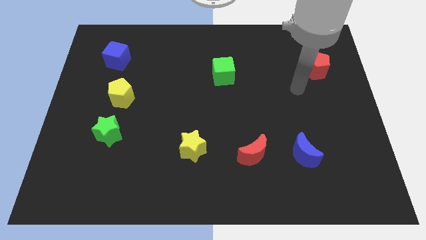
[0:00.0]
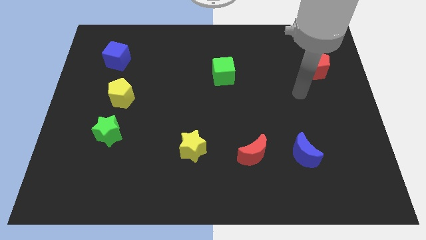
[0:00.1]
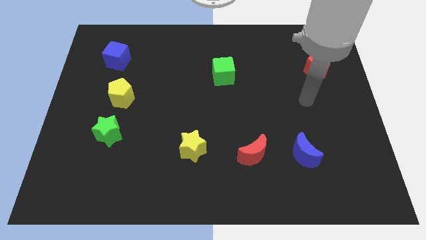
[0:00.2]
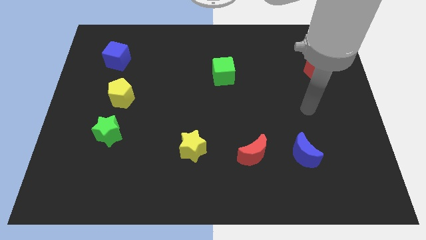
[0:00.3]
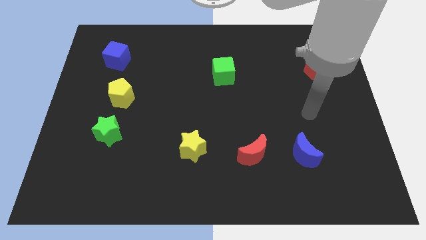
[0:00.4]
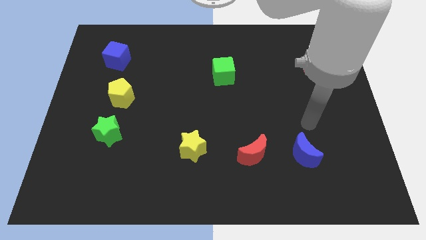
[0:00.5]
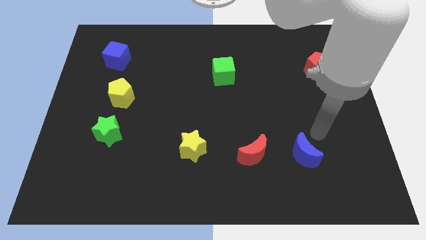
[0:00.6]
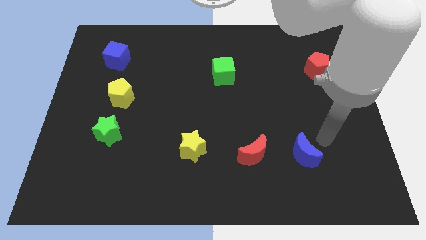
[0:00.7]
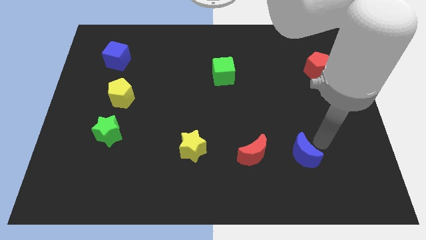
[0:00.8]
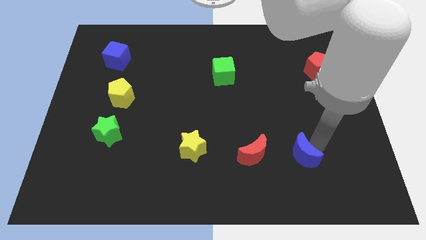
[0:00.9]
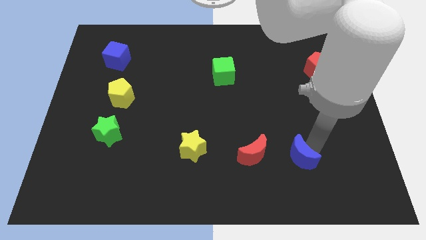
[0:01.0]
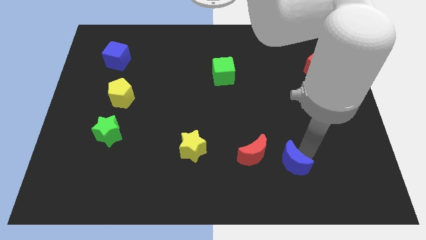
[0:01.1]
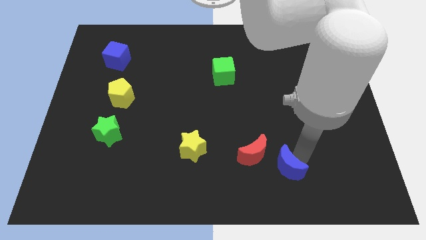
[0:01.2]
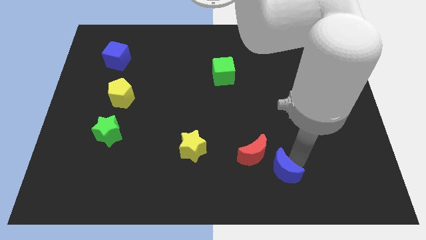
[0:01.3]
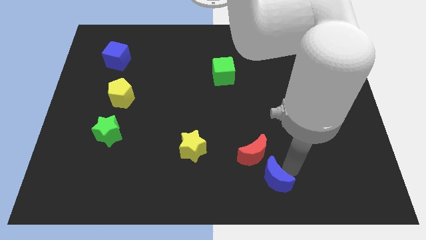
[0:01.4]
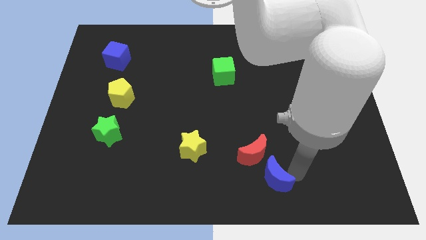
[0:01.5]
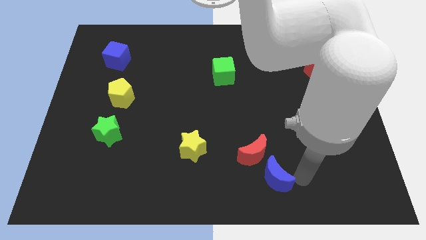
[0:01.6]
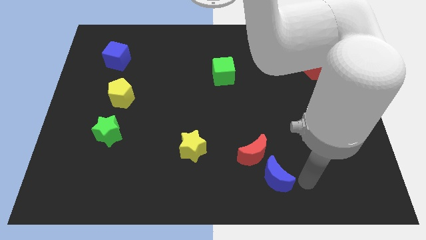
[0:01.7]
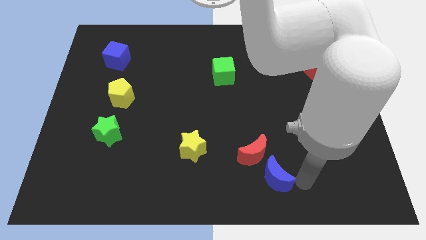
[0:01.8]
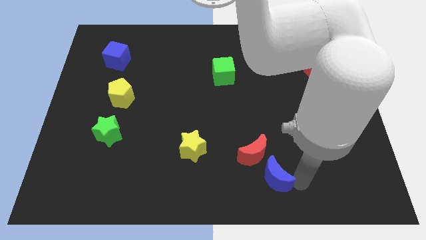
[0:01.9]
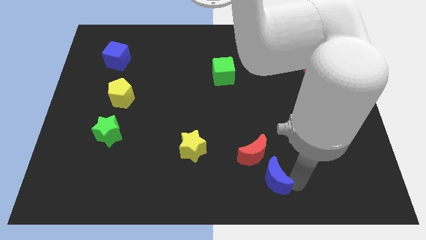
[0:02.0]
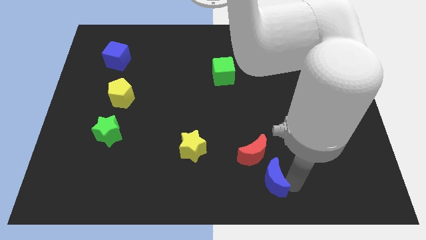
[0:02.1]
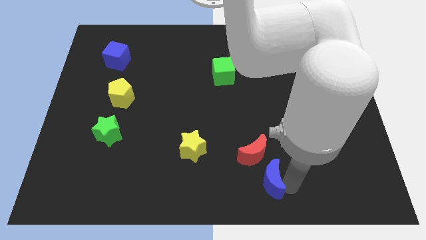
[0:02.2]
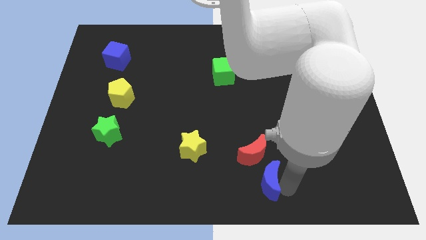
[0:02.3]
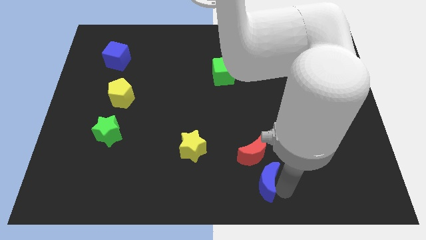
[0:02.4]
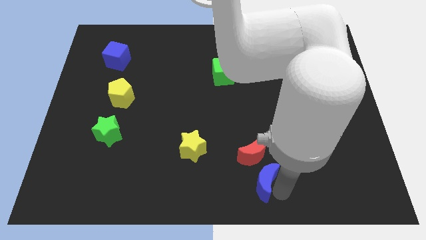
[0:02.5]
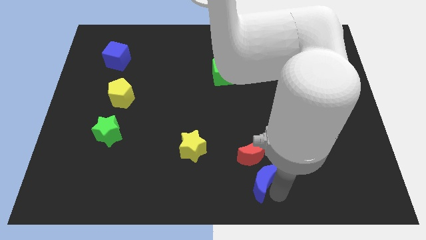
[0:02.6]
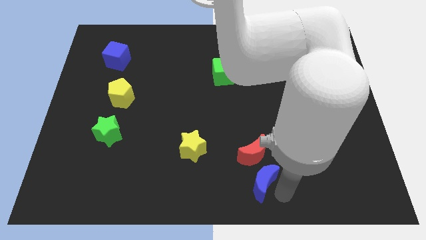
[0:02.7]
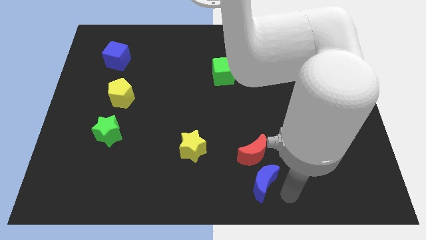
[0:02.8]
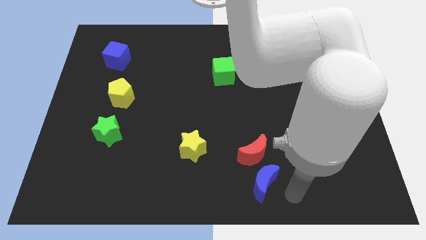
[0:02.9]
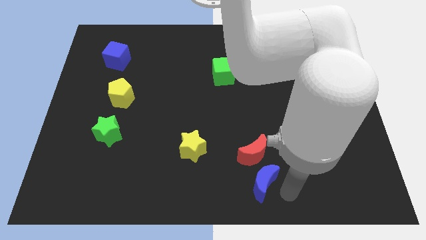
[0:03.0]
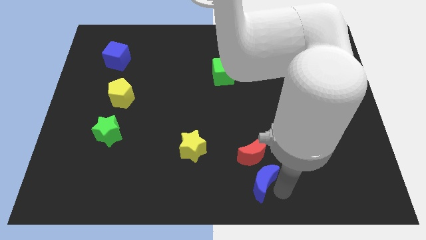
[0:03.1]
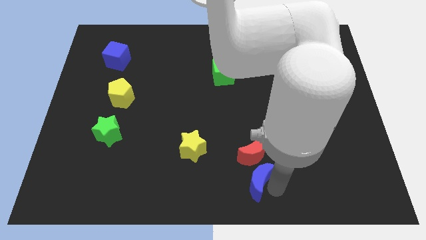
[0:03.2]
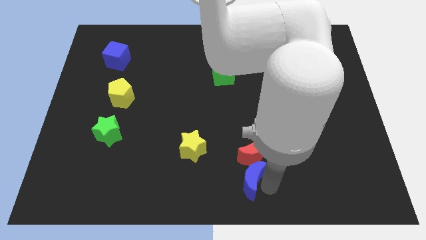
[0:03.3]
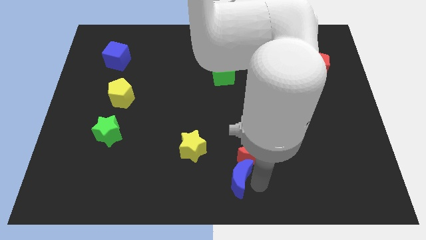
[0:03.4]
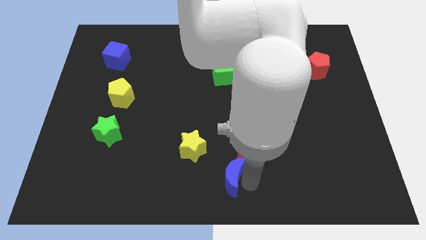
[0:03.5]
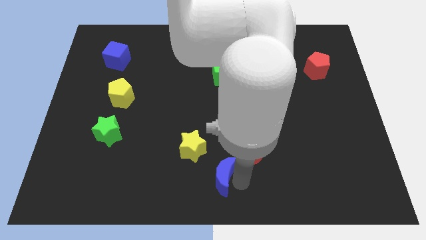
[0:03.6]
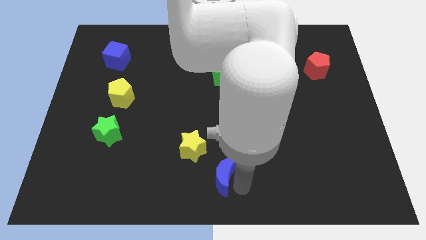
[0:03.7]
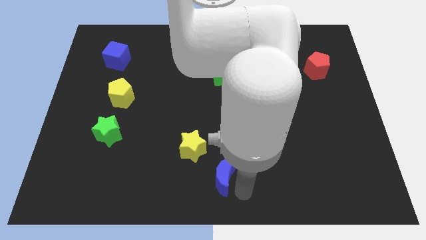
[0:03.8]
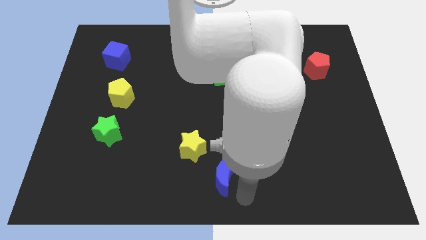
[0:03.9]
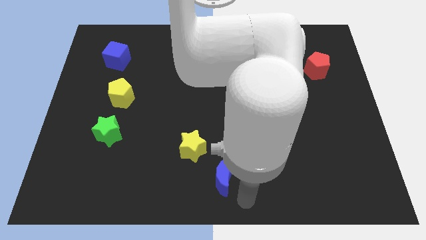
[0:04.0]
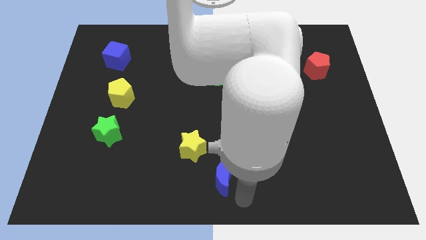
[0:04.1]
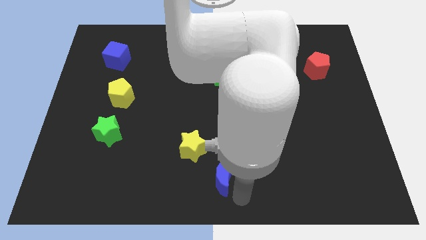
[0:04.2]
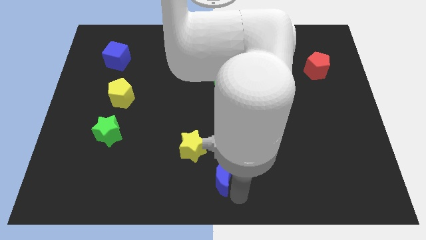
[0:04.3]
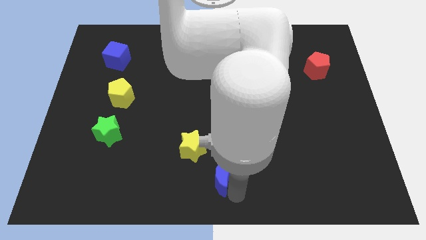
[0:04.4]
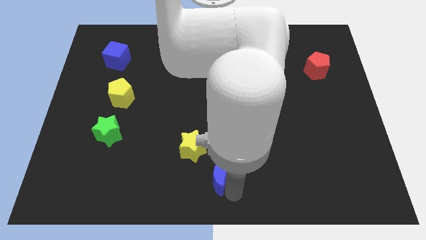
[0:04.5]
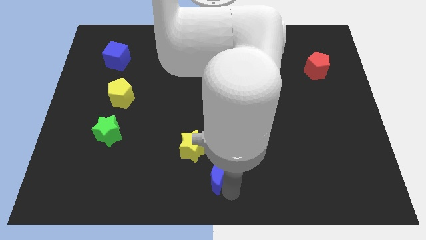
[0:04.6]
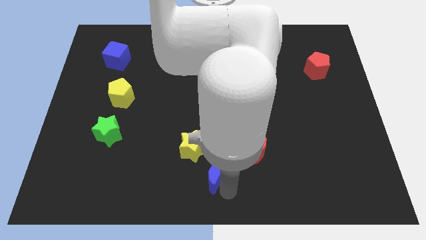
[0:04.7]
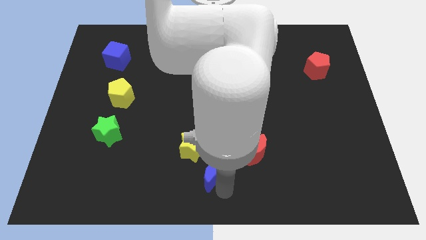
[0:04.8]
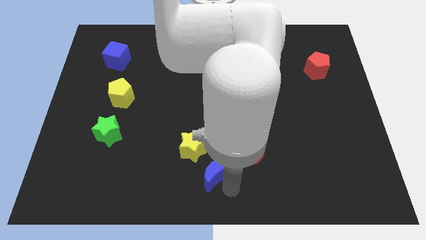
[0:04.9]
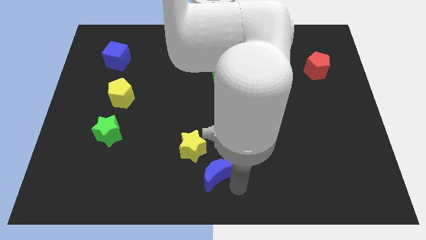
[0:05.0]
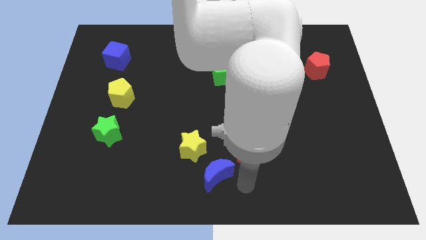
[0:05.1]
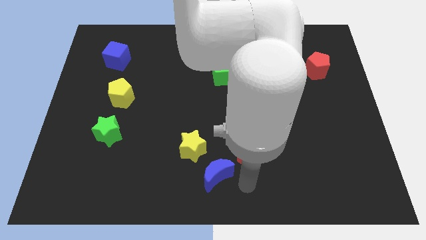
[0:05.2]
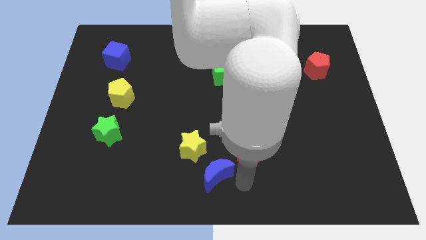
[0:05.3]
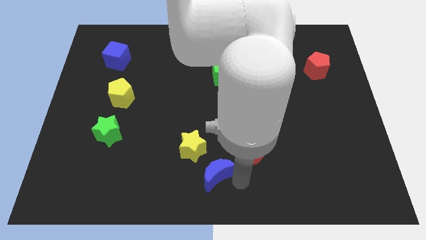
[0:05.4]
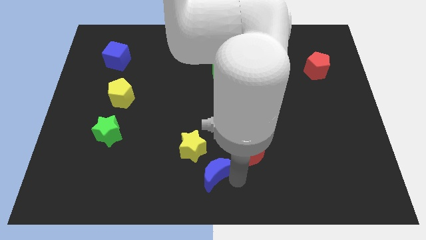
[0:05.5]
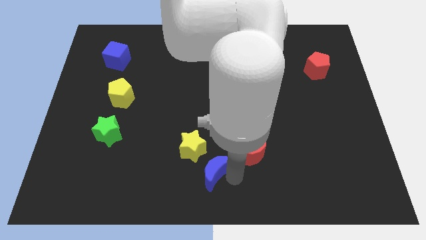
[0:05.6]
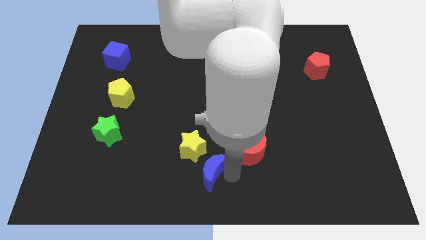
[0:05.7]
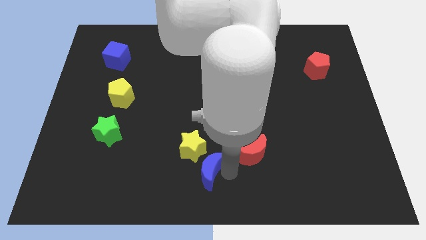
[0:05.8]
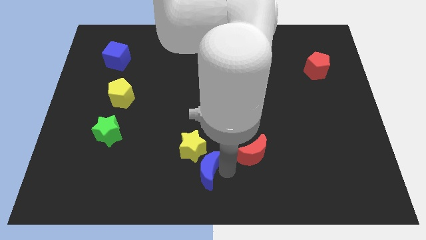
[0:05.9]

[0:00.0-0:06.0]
push the blue moon to the left

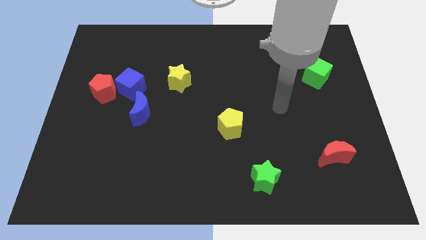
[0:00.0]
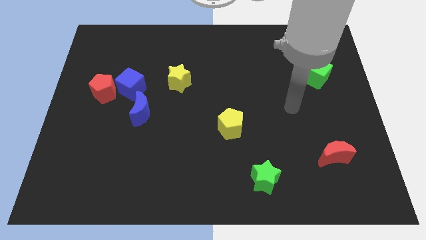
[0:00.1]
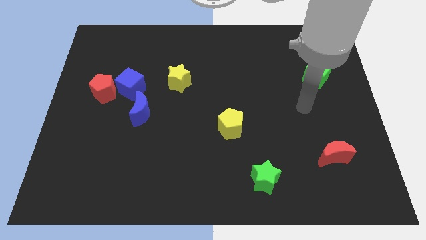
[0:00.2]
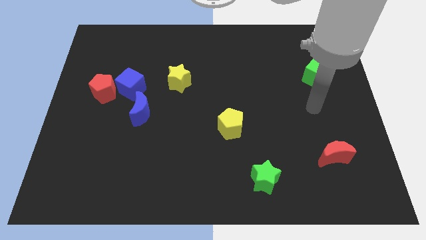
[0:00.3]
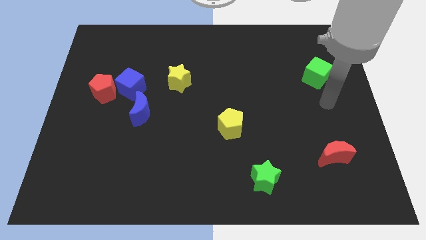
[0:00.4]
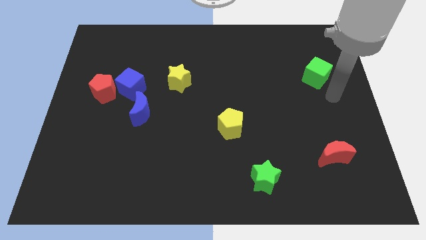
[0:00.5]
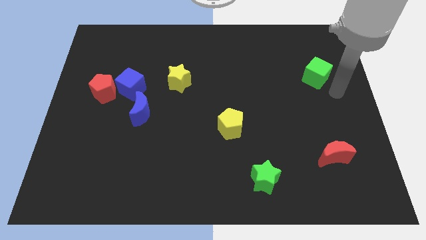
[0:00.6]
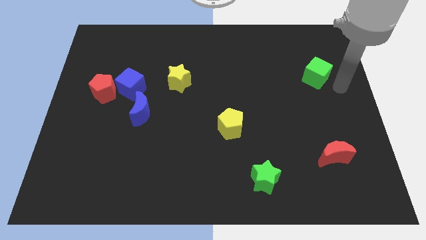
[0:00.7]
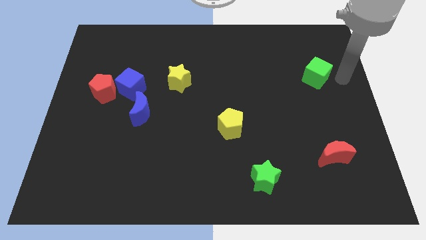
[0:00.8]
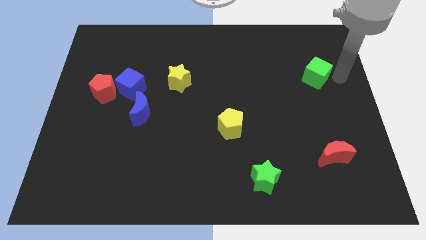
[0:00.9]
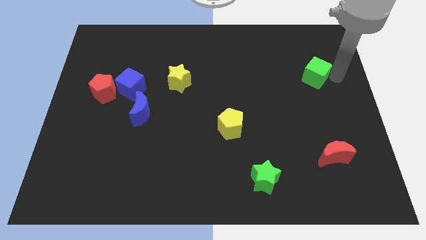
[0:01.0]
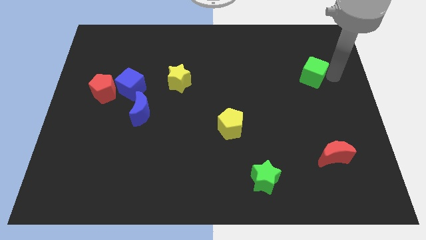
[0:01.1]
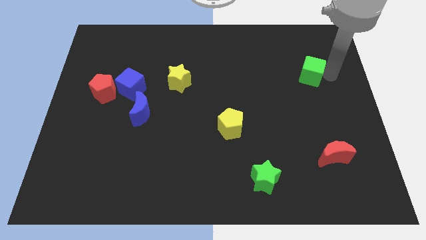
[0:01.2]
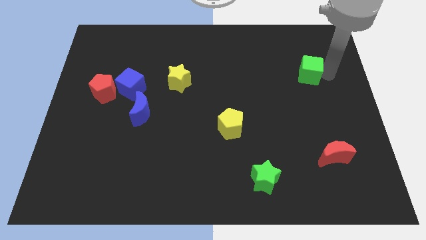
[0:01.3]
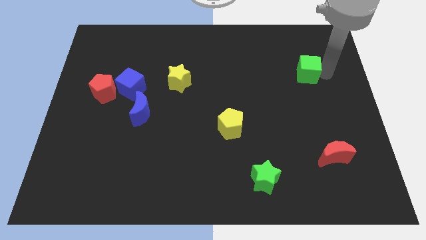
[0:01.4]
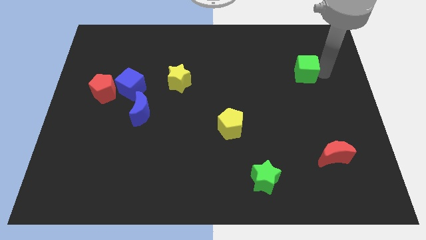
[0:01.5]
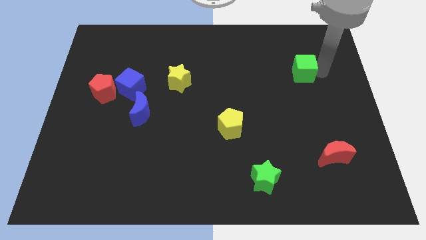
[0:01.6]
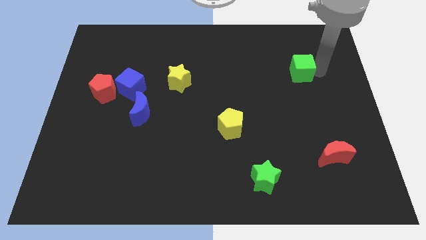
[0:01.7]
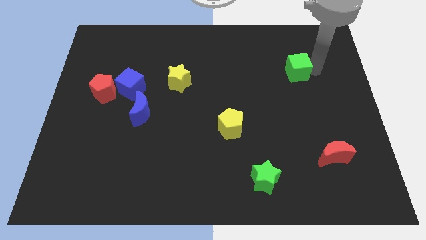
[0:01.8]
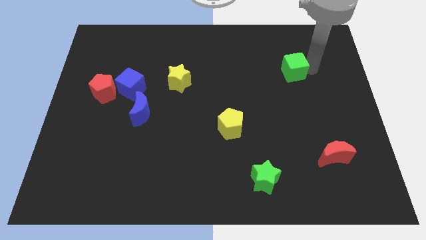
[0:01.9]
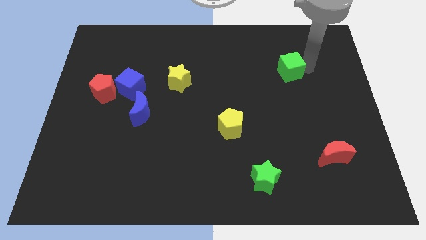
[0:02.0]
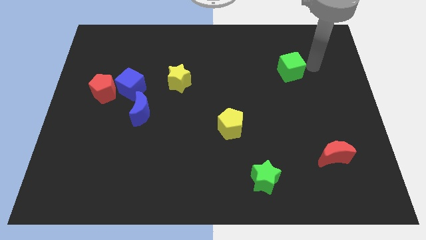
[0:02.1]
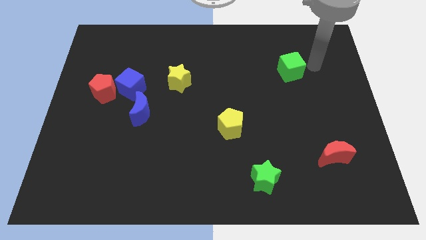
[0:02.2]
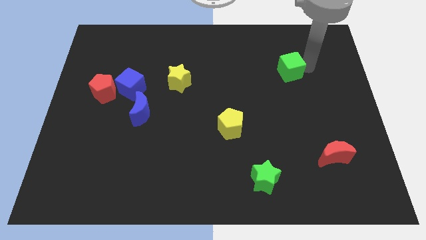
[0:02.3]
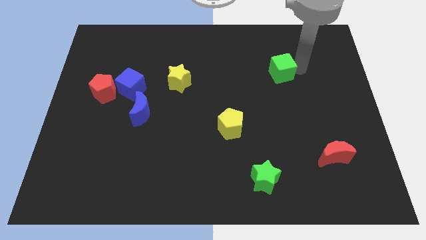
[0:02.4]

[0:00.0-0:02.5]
slightly move the green cube to the left
